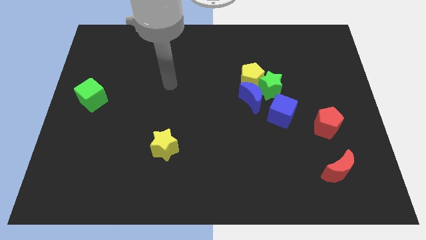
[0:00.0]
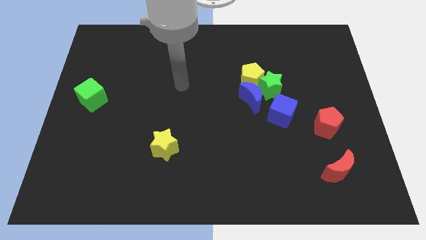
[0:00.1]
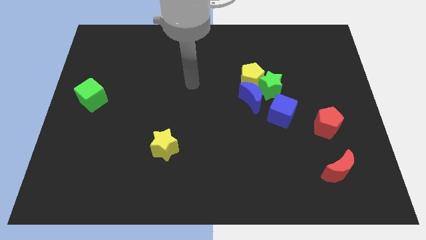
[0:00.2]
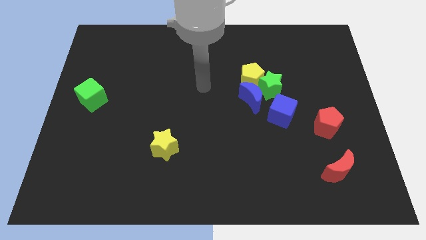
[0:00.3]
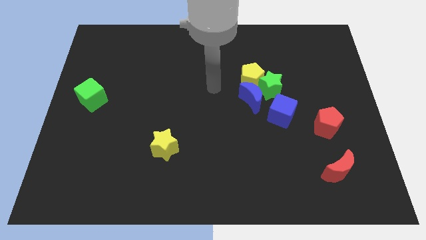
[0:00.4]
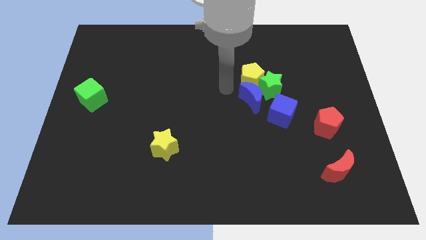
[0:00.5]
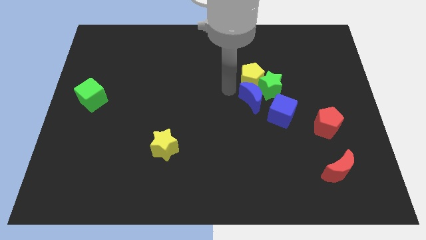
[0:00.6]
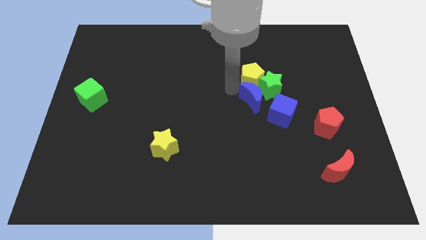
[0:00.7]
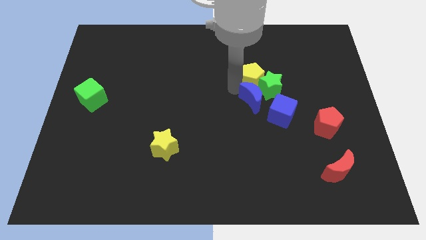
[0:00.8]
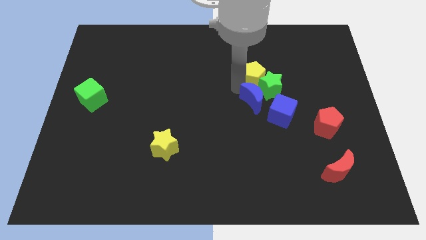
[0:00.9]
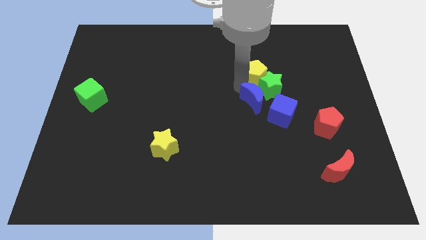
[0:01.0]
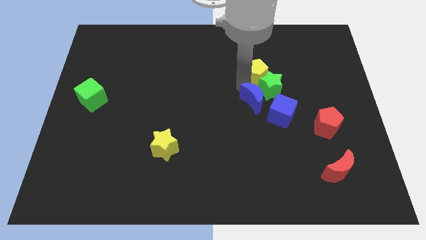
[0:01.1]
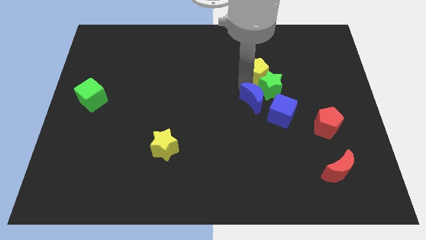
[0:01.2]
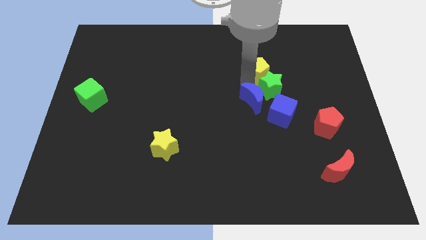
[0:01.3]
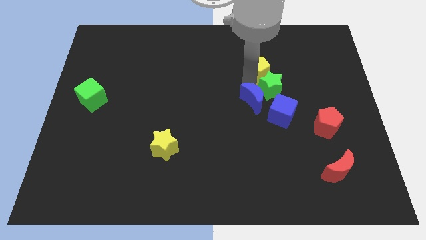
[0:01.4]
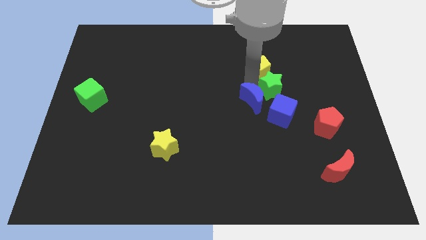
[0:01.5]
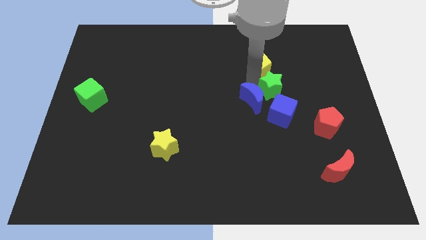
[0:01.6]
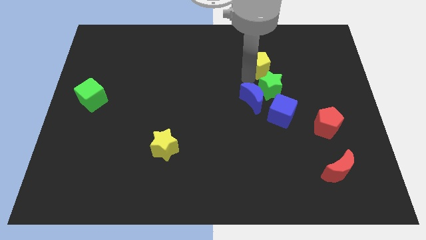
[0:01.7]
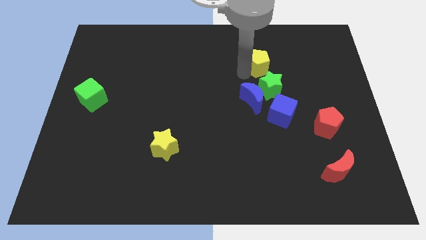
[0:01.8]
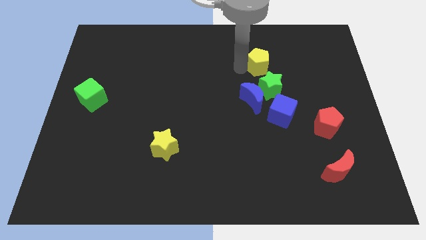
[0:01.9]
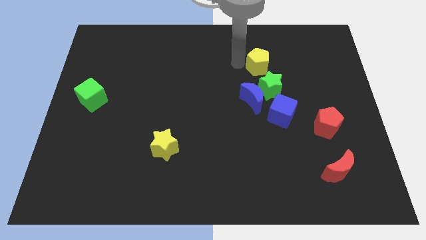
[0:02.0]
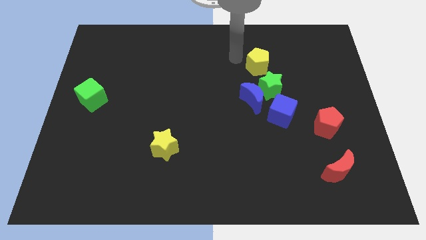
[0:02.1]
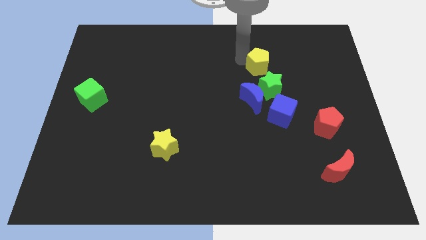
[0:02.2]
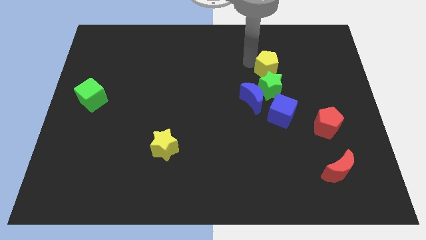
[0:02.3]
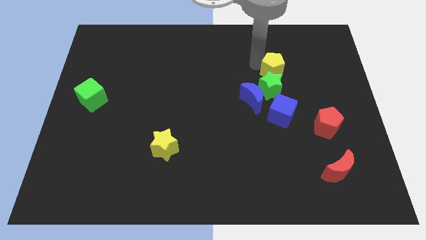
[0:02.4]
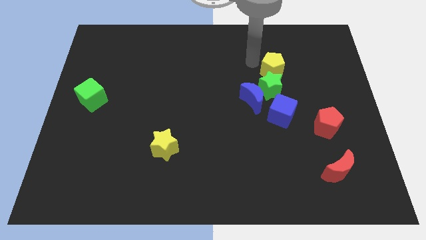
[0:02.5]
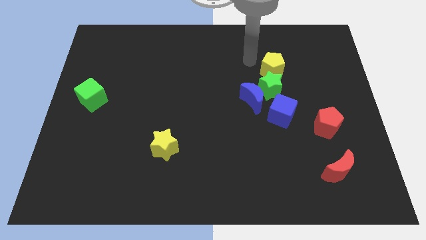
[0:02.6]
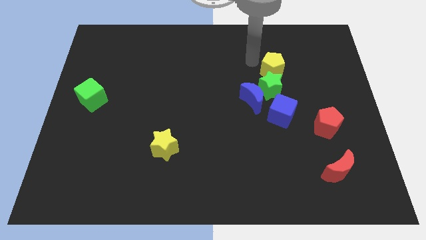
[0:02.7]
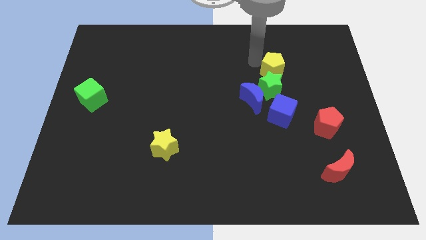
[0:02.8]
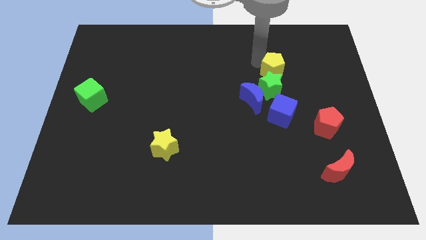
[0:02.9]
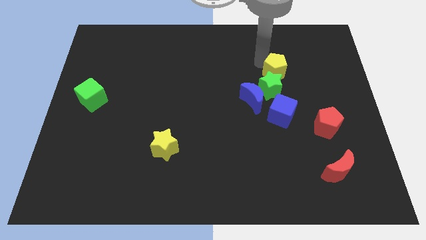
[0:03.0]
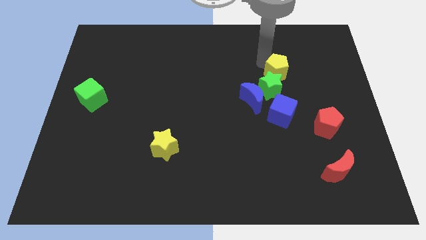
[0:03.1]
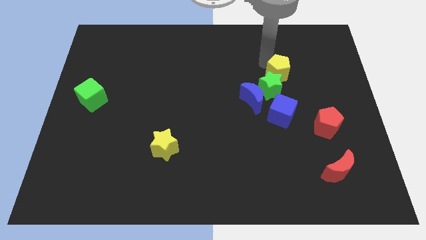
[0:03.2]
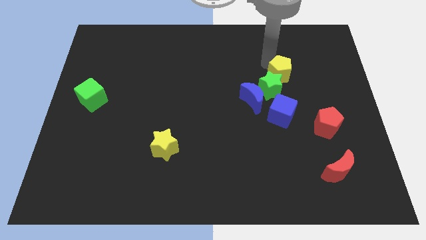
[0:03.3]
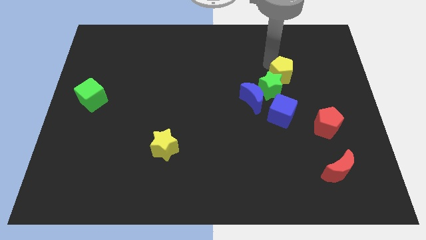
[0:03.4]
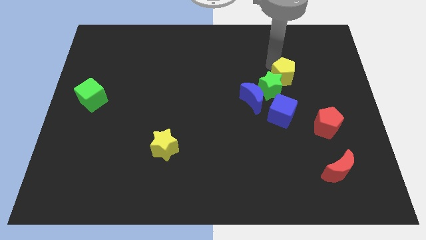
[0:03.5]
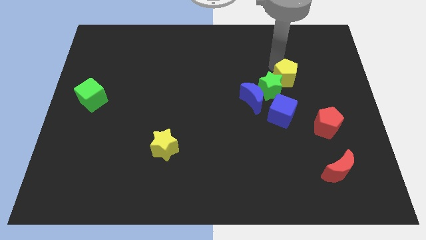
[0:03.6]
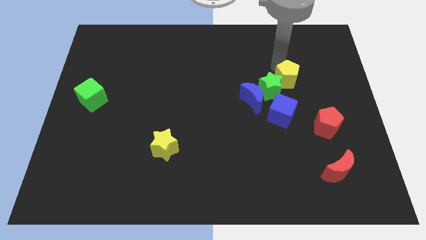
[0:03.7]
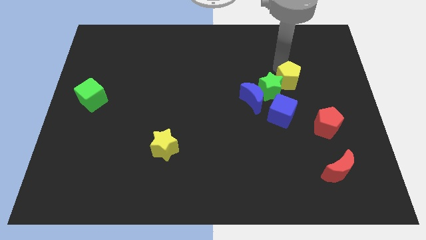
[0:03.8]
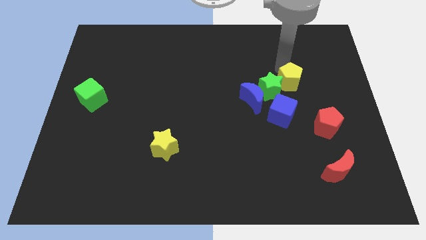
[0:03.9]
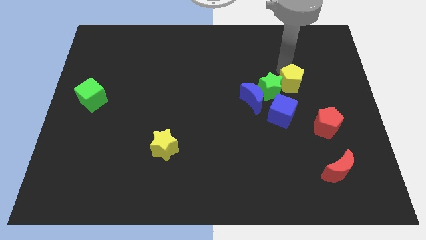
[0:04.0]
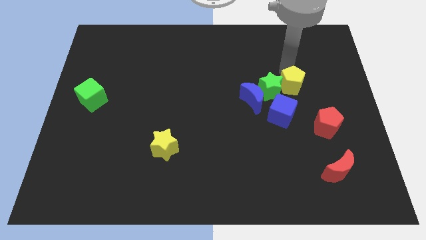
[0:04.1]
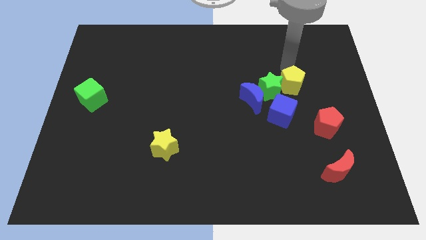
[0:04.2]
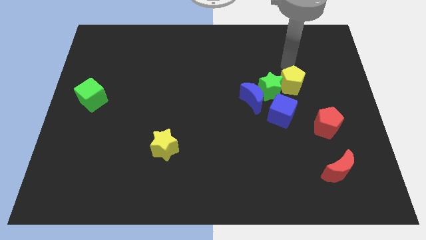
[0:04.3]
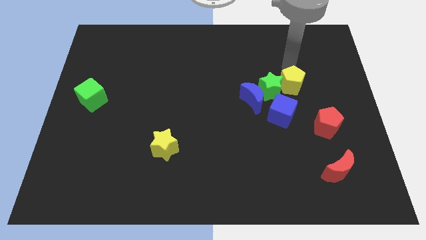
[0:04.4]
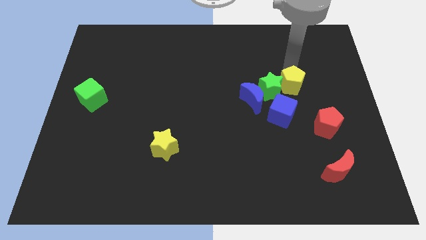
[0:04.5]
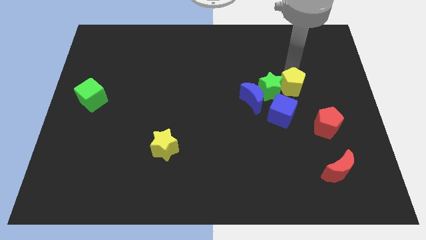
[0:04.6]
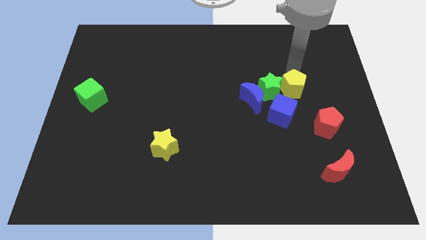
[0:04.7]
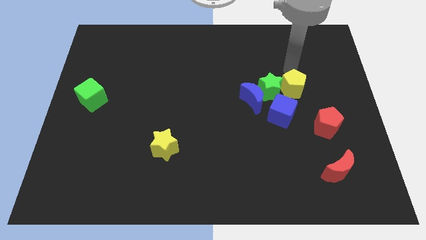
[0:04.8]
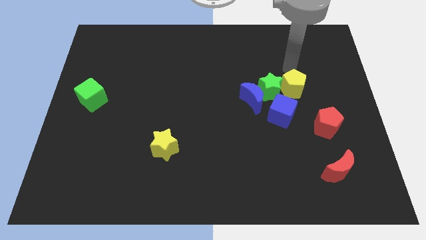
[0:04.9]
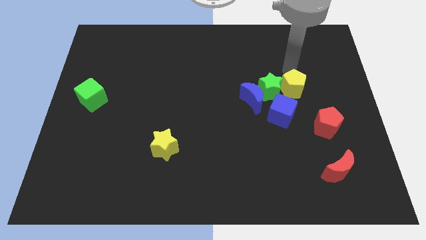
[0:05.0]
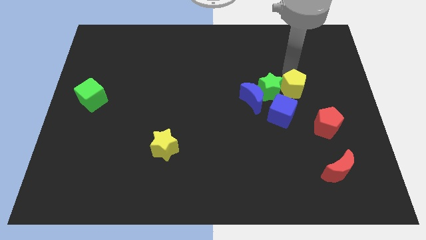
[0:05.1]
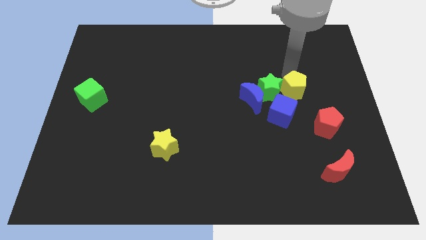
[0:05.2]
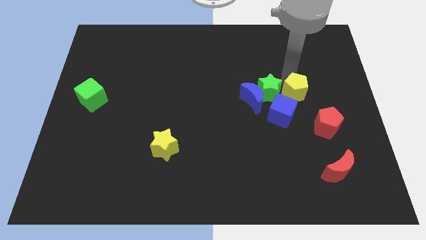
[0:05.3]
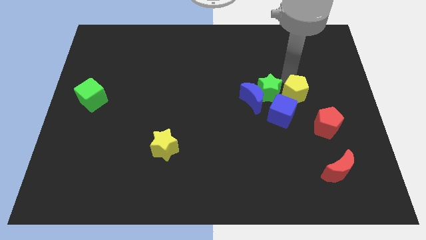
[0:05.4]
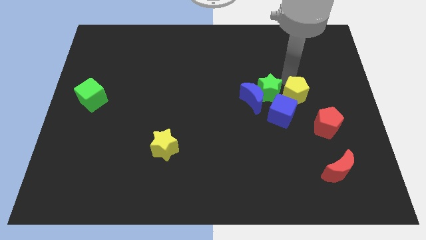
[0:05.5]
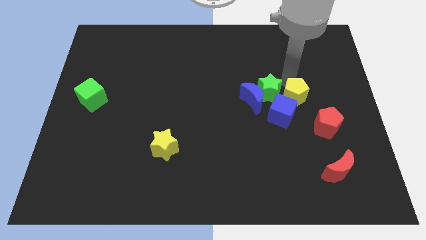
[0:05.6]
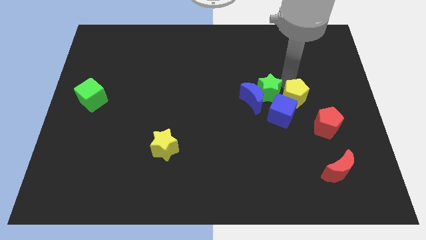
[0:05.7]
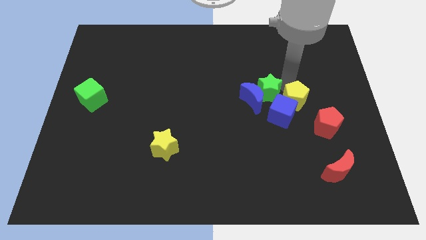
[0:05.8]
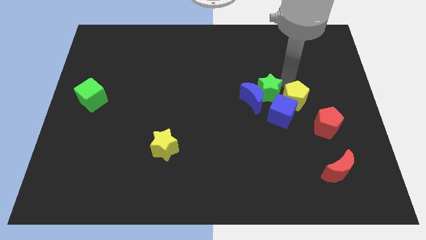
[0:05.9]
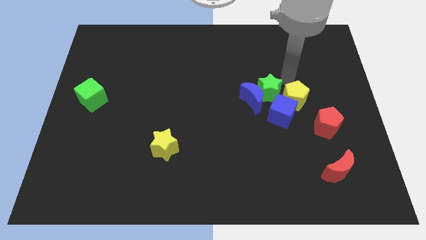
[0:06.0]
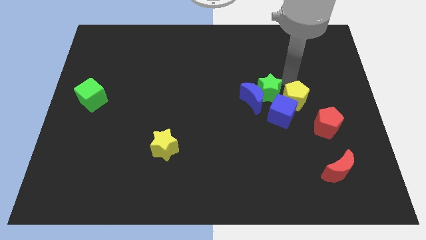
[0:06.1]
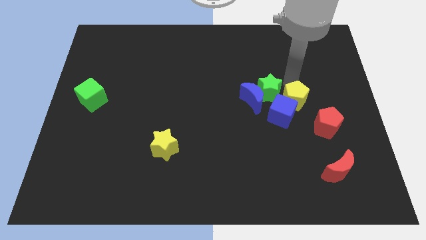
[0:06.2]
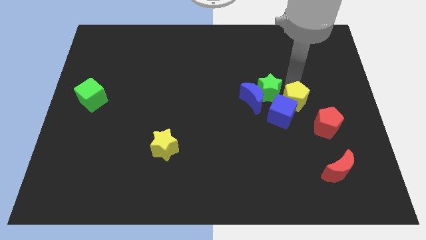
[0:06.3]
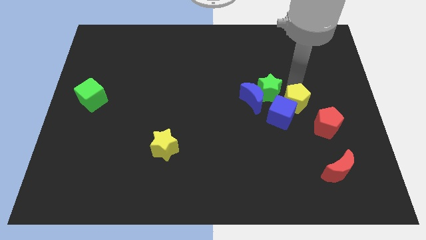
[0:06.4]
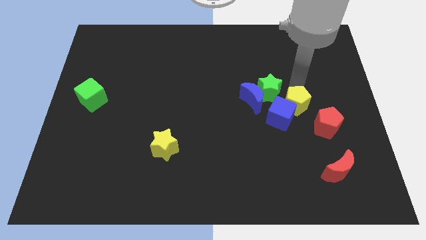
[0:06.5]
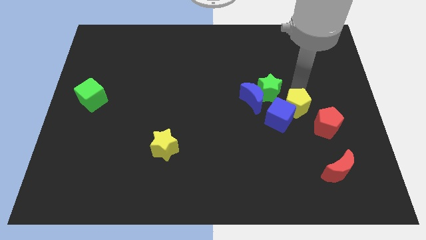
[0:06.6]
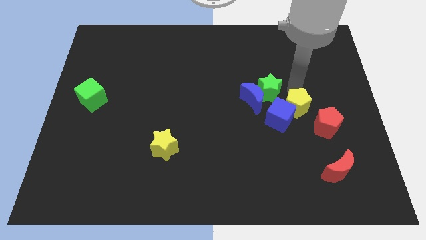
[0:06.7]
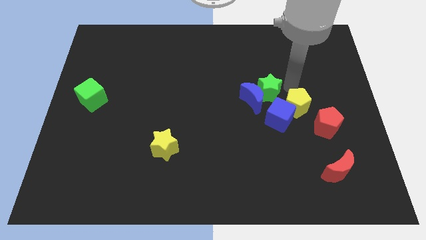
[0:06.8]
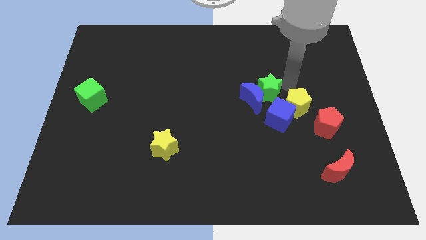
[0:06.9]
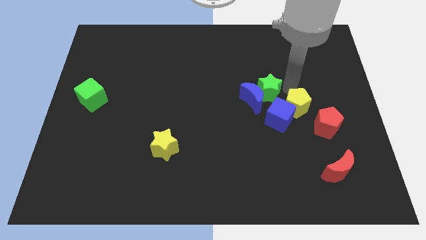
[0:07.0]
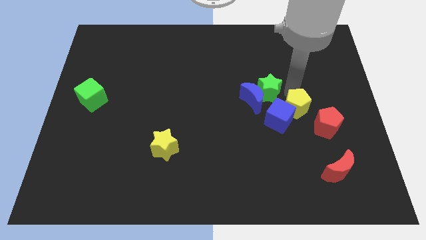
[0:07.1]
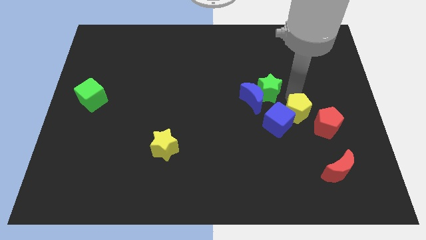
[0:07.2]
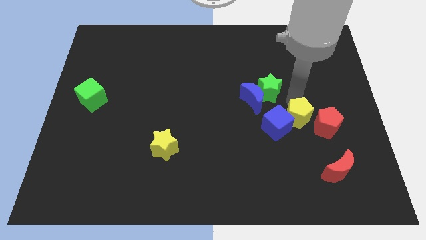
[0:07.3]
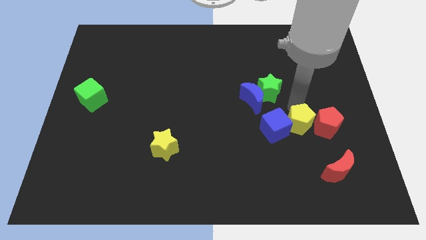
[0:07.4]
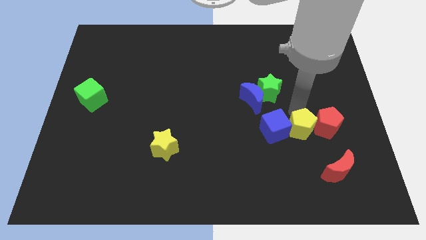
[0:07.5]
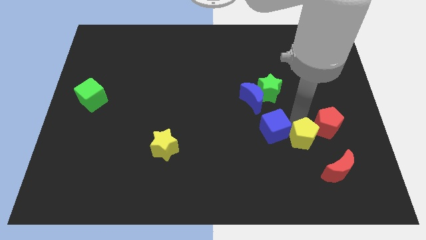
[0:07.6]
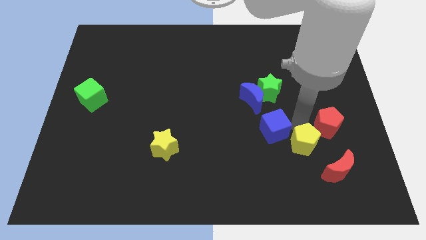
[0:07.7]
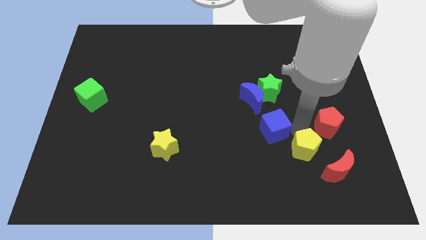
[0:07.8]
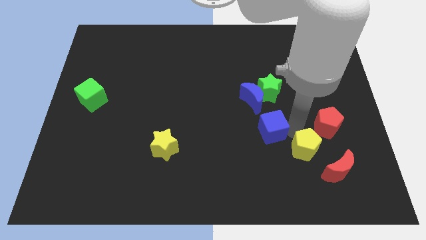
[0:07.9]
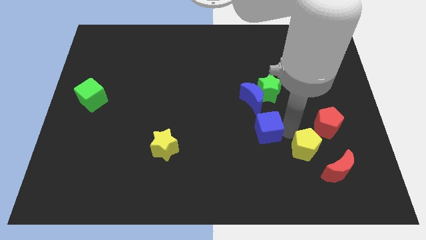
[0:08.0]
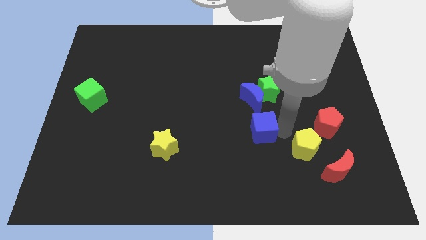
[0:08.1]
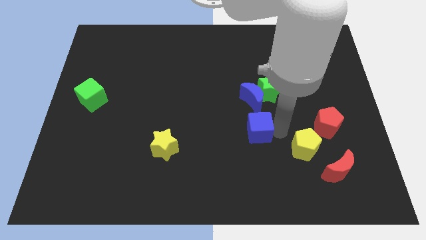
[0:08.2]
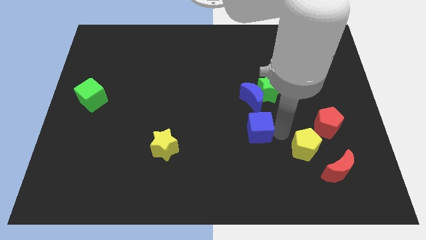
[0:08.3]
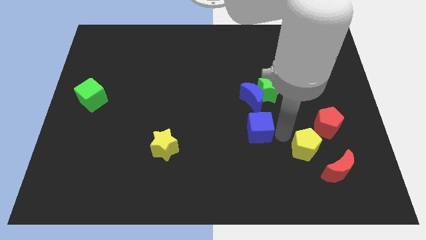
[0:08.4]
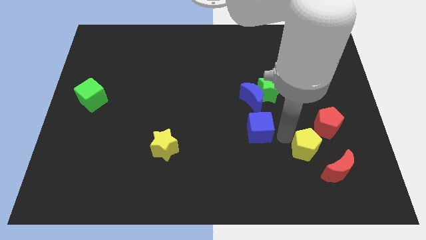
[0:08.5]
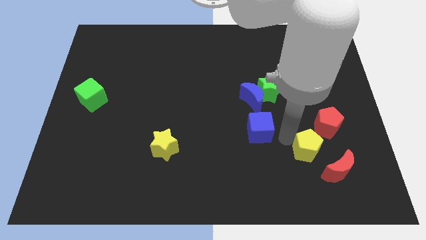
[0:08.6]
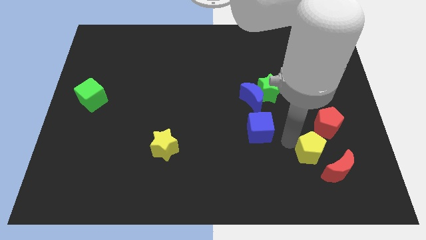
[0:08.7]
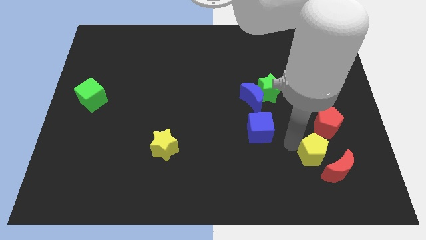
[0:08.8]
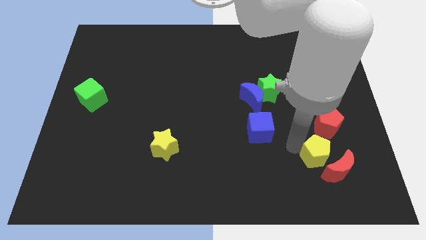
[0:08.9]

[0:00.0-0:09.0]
push the yellow pentagon towards the red moon
